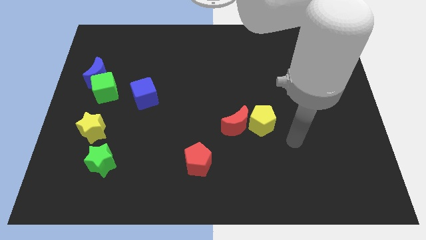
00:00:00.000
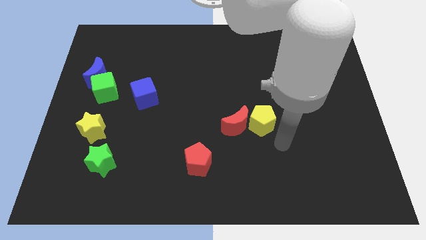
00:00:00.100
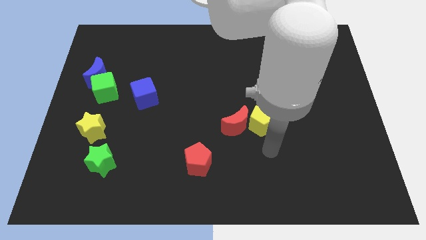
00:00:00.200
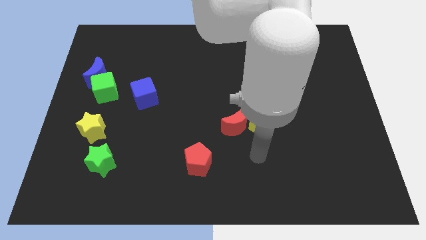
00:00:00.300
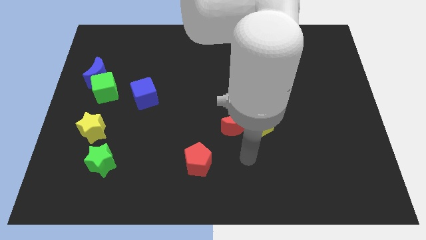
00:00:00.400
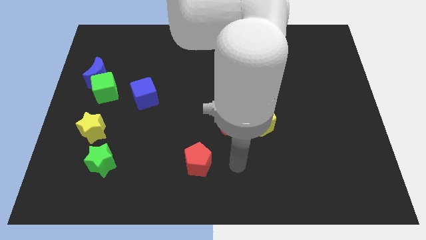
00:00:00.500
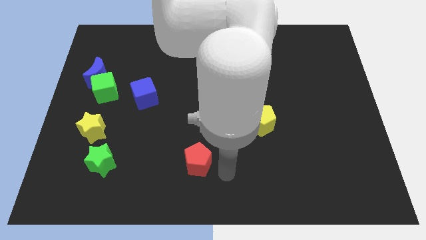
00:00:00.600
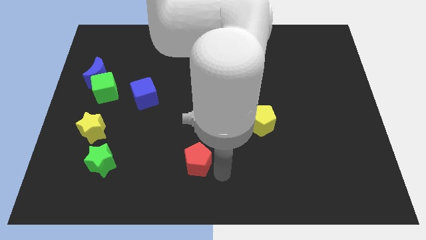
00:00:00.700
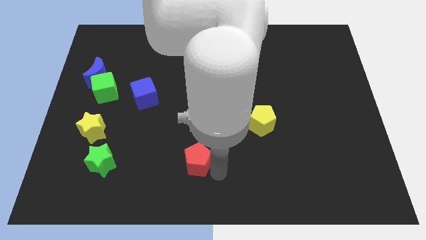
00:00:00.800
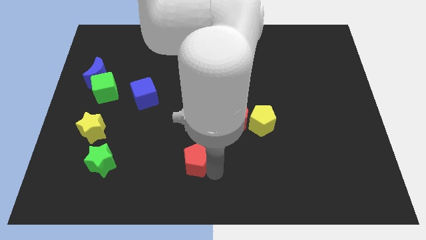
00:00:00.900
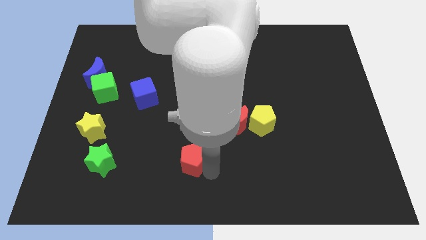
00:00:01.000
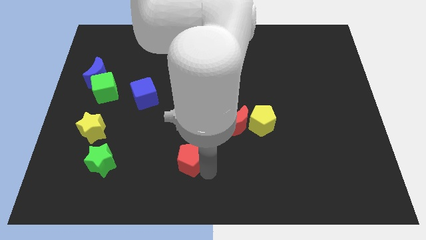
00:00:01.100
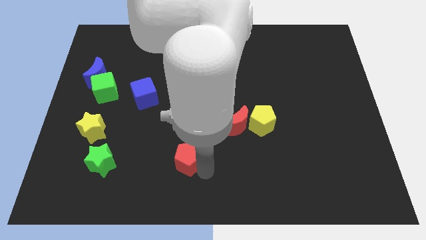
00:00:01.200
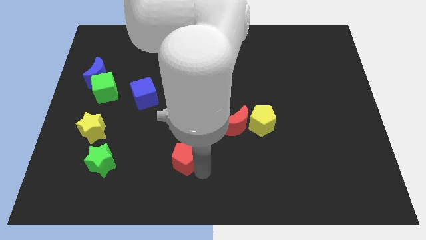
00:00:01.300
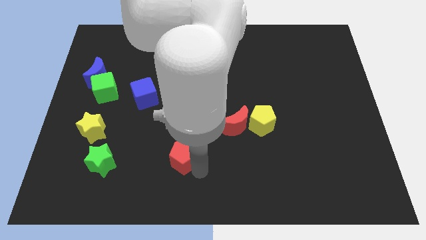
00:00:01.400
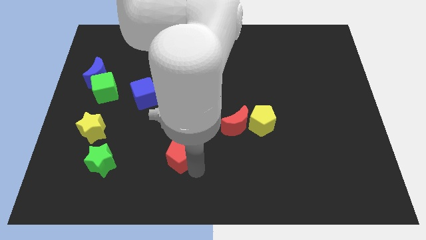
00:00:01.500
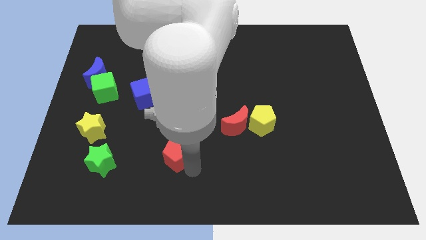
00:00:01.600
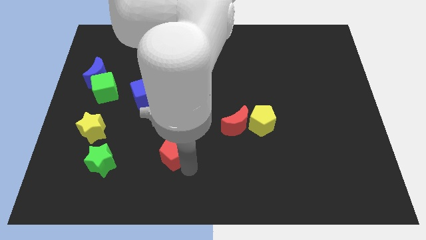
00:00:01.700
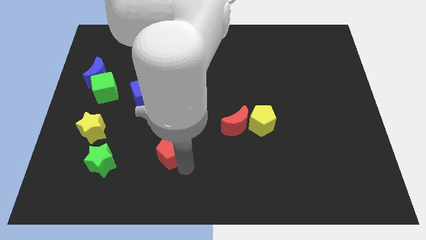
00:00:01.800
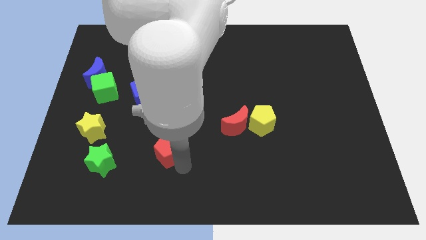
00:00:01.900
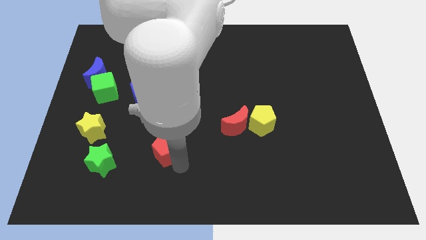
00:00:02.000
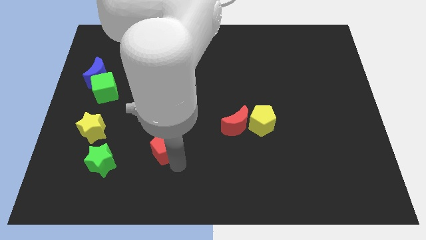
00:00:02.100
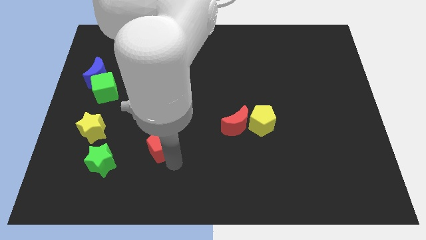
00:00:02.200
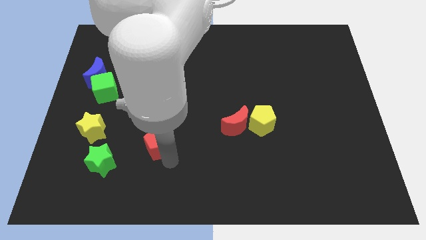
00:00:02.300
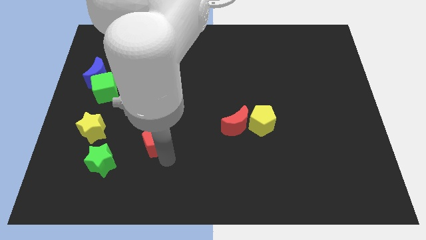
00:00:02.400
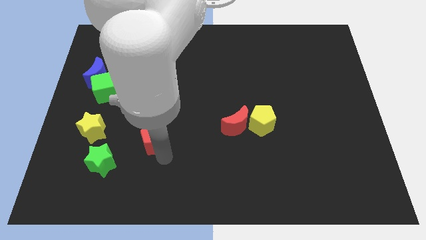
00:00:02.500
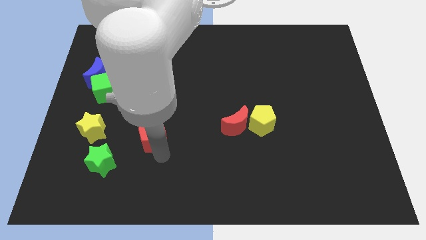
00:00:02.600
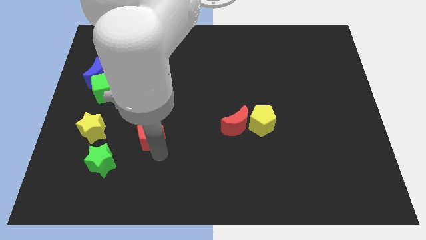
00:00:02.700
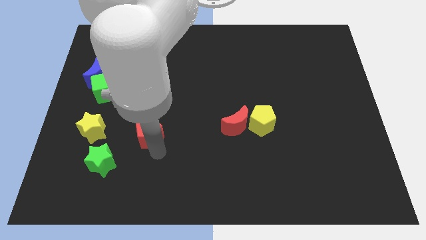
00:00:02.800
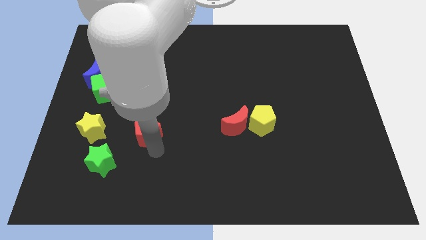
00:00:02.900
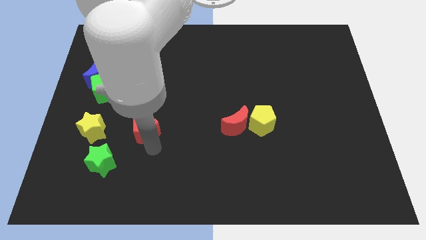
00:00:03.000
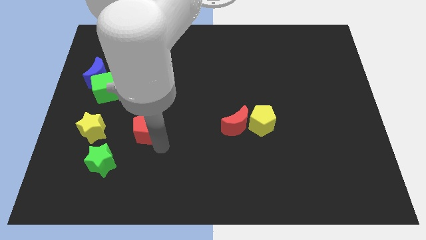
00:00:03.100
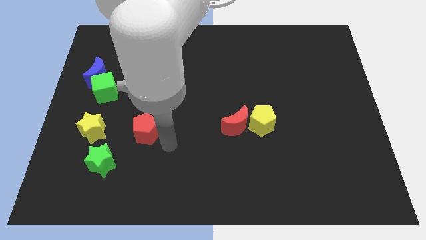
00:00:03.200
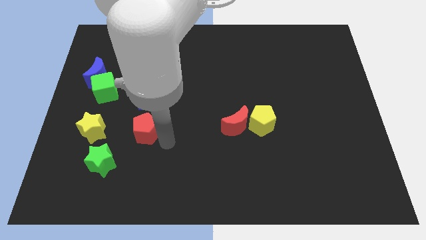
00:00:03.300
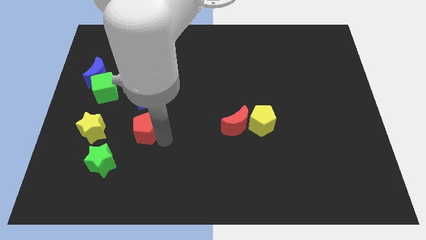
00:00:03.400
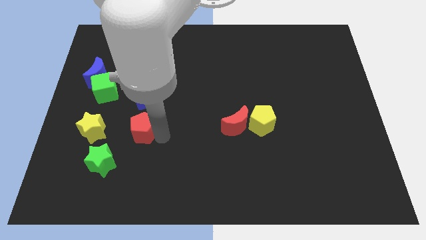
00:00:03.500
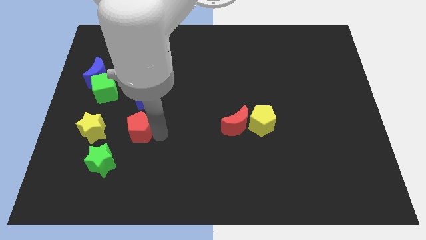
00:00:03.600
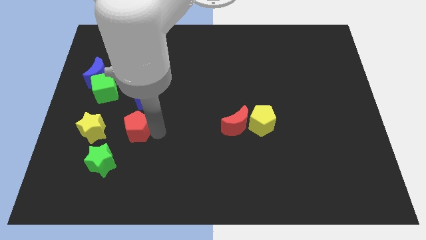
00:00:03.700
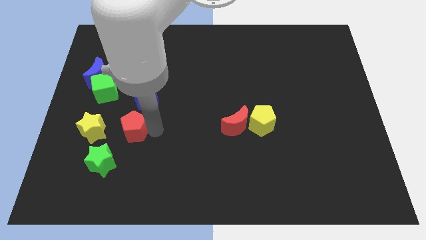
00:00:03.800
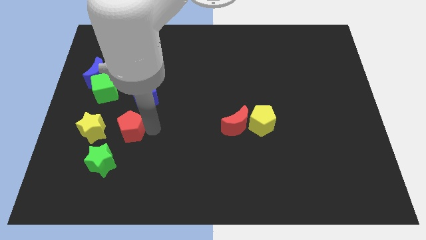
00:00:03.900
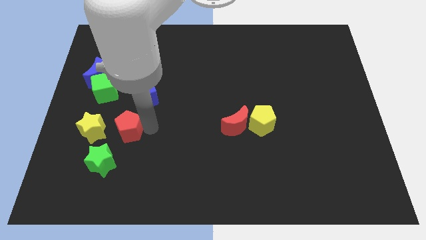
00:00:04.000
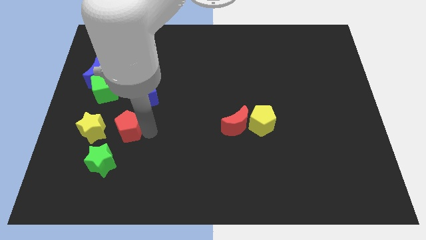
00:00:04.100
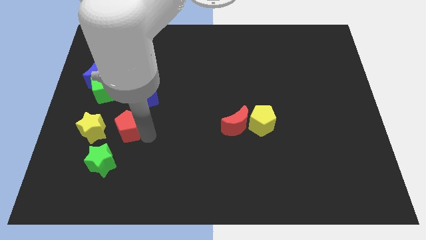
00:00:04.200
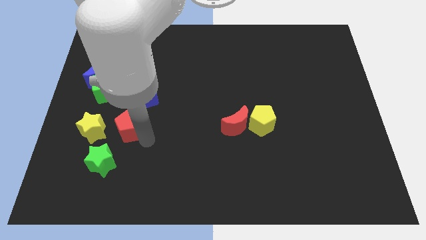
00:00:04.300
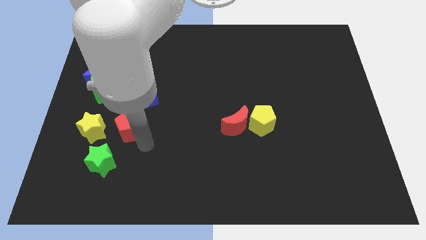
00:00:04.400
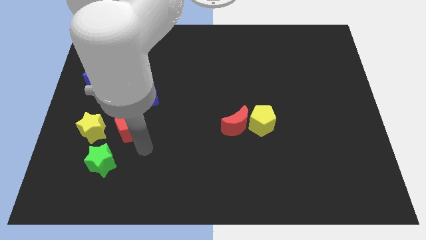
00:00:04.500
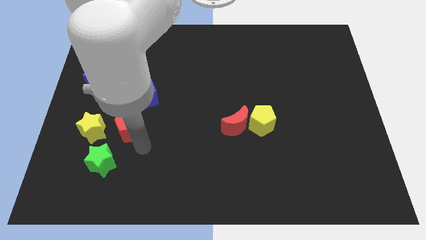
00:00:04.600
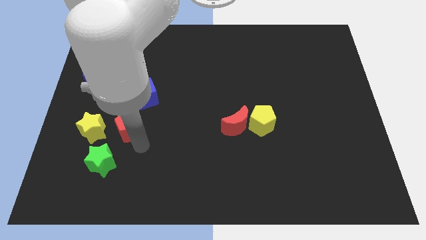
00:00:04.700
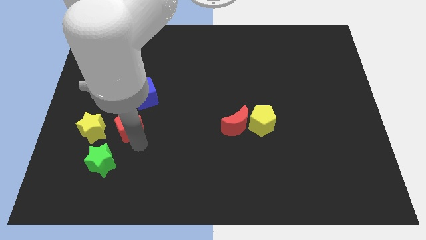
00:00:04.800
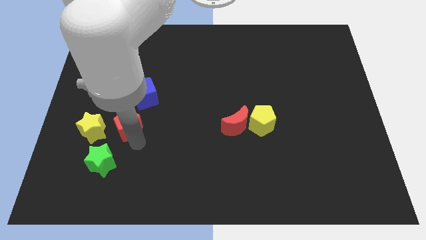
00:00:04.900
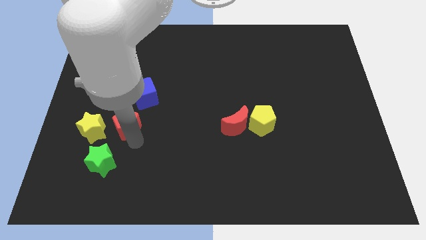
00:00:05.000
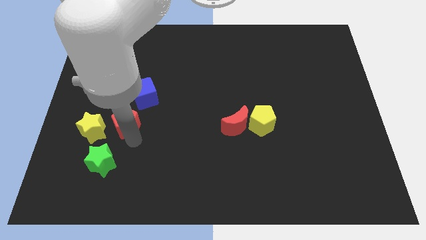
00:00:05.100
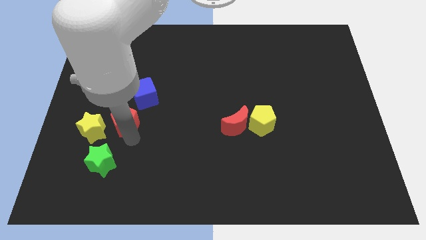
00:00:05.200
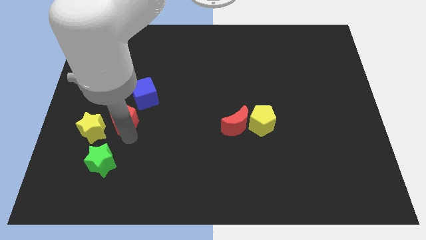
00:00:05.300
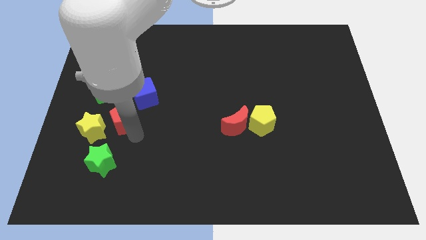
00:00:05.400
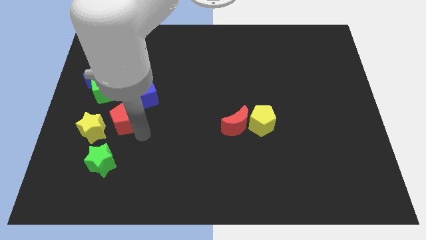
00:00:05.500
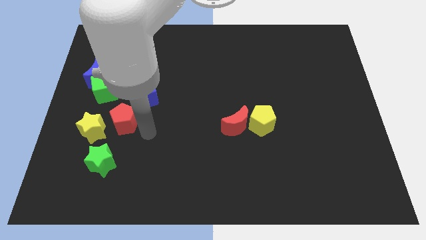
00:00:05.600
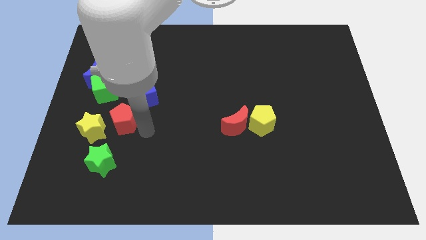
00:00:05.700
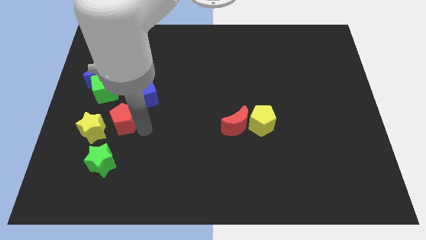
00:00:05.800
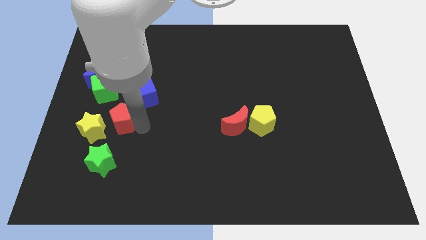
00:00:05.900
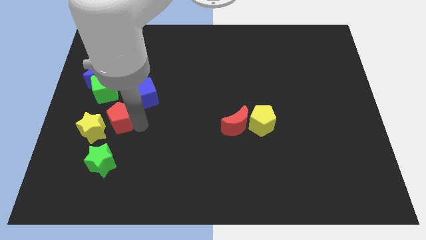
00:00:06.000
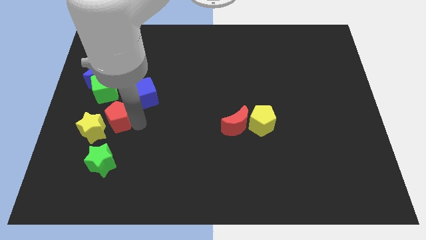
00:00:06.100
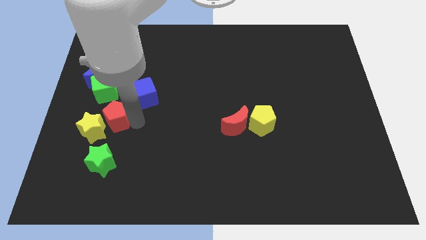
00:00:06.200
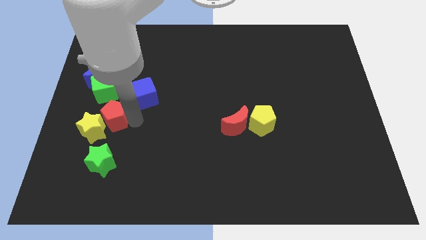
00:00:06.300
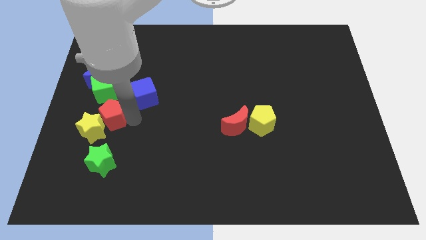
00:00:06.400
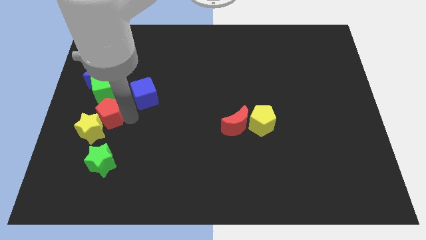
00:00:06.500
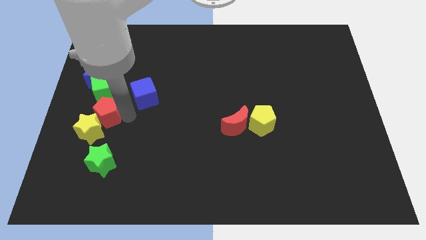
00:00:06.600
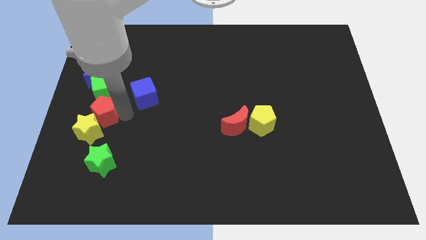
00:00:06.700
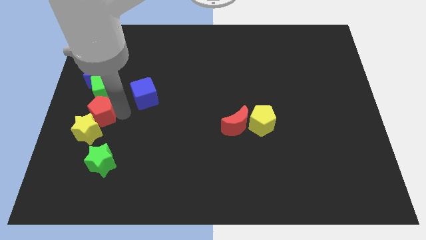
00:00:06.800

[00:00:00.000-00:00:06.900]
push the red pentagon to the left side of the board
